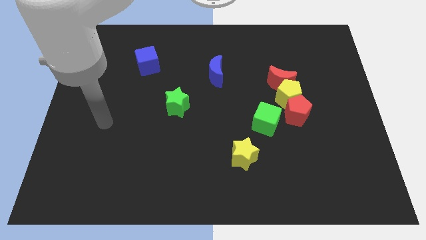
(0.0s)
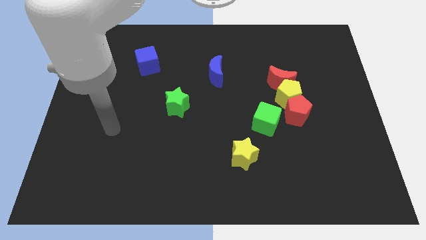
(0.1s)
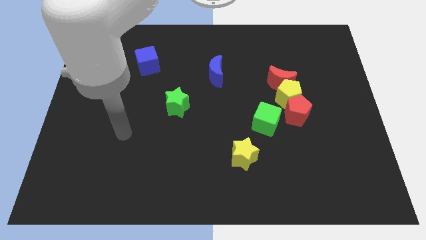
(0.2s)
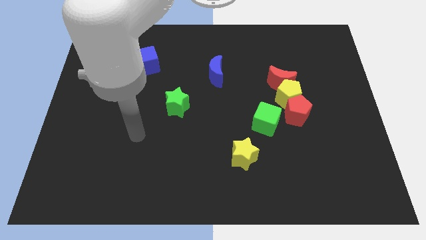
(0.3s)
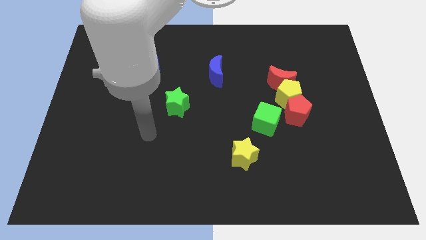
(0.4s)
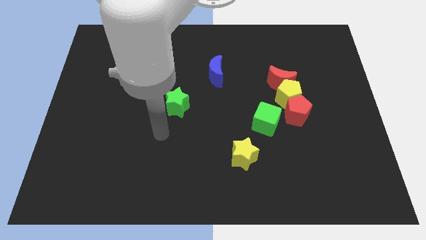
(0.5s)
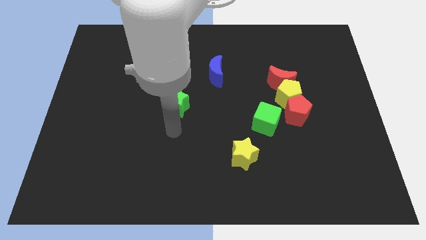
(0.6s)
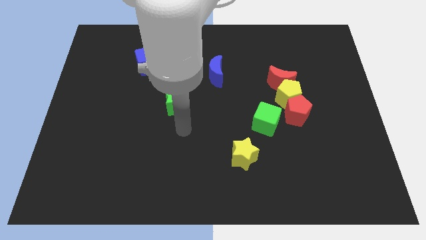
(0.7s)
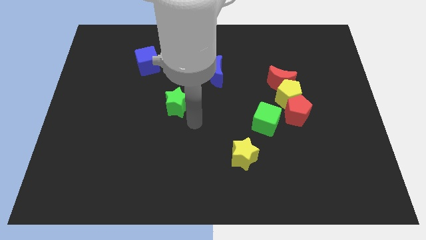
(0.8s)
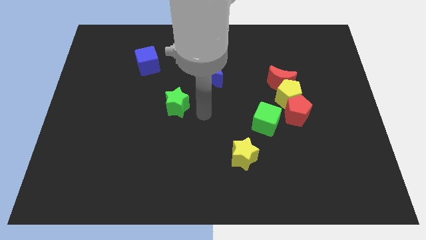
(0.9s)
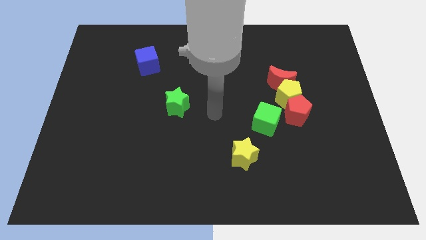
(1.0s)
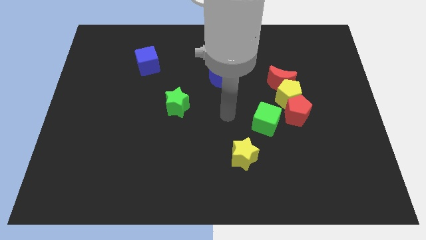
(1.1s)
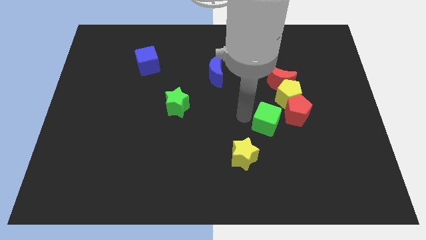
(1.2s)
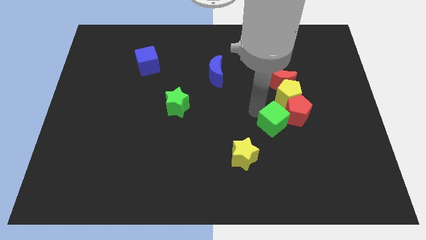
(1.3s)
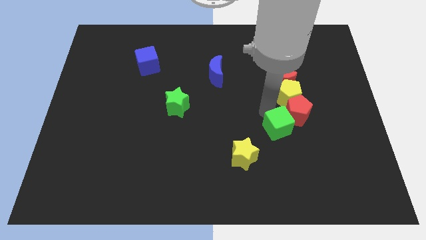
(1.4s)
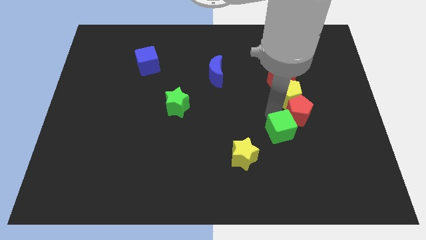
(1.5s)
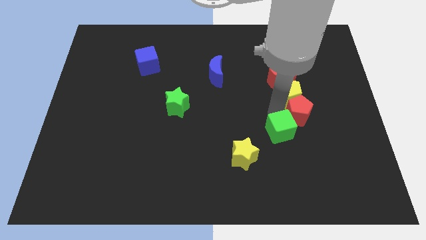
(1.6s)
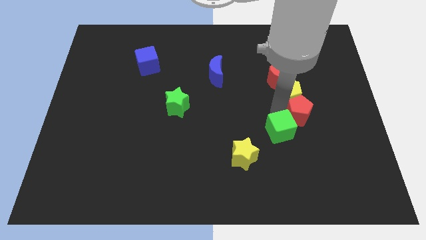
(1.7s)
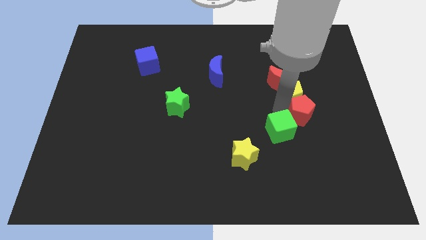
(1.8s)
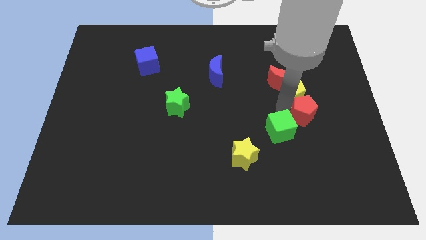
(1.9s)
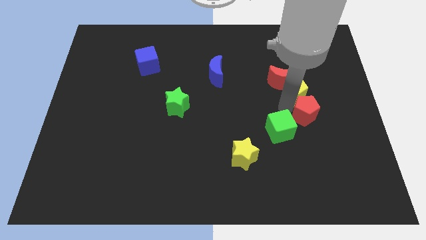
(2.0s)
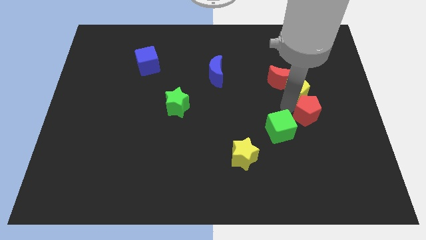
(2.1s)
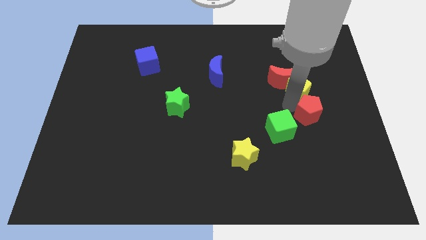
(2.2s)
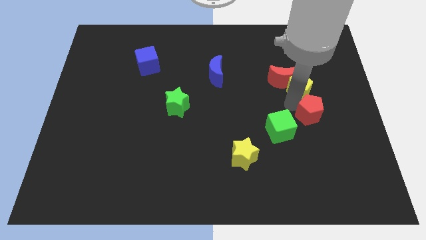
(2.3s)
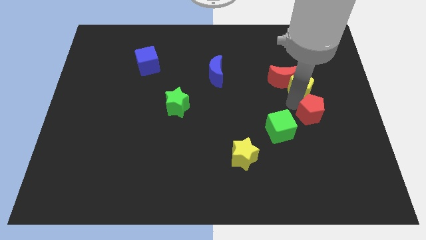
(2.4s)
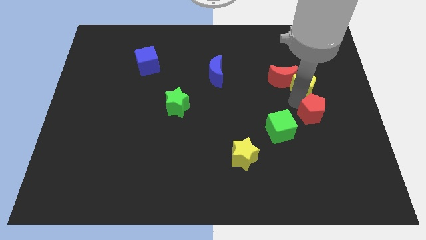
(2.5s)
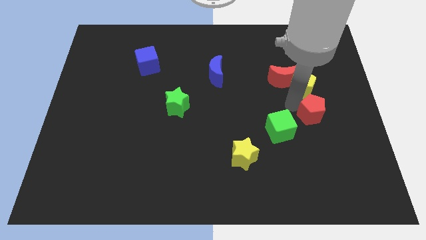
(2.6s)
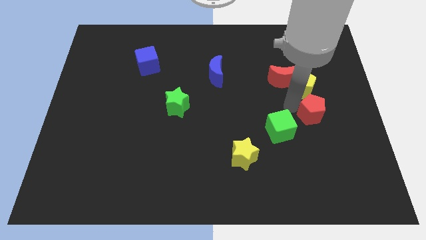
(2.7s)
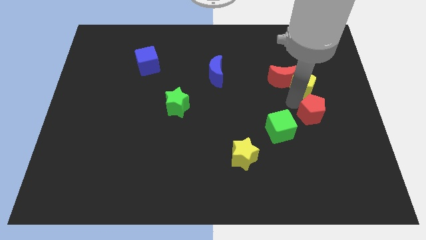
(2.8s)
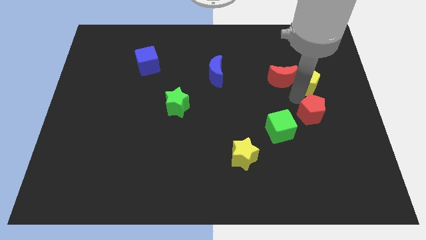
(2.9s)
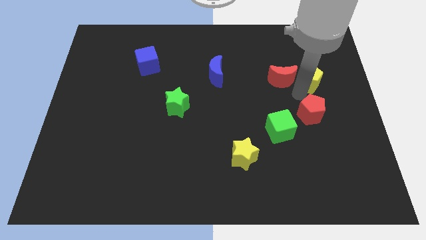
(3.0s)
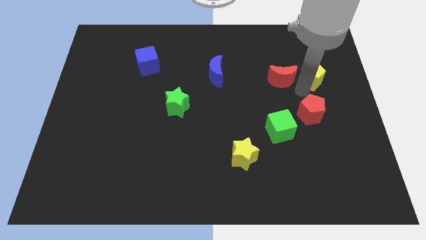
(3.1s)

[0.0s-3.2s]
separate the yellow pentagon from the group

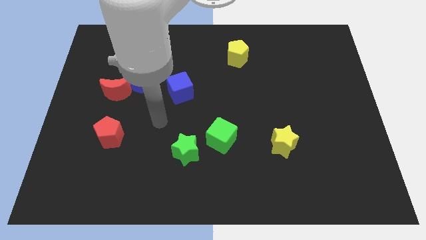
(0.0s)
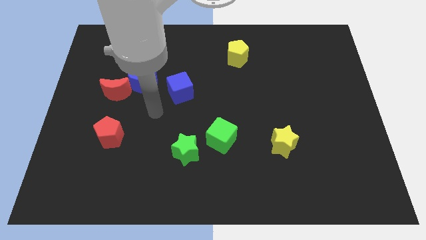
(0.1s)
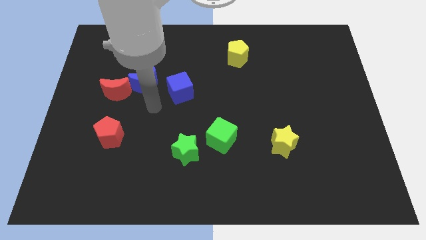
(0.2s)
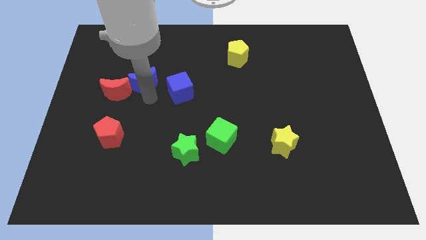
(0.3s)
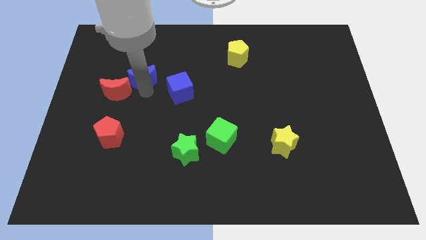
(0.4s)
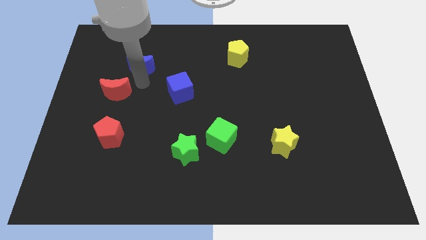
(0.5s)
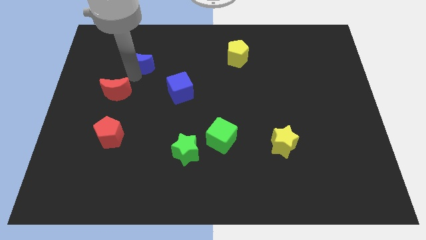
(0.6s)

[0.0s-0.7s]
pull the red moon apart from the blue moon

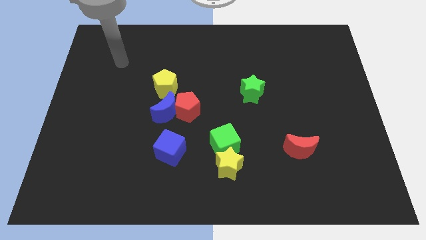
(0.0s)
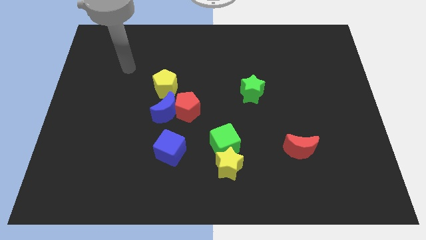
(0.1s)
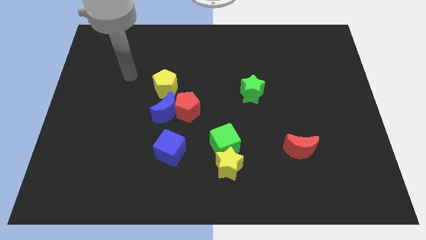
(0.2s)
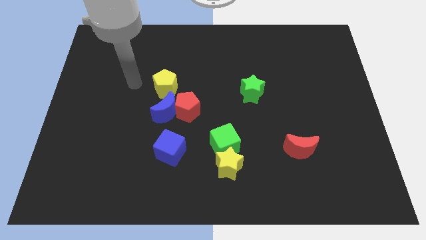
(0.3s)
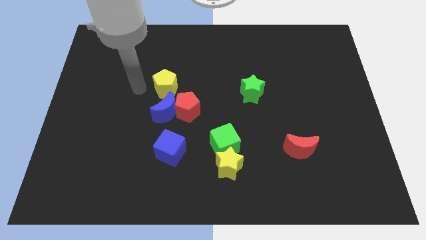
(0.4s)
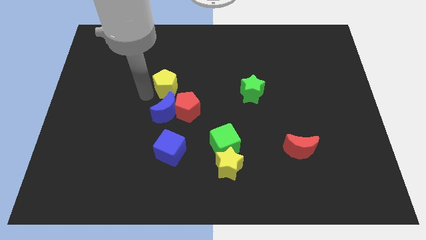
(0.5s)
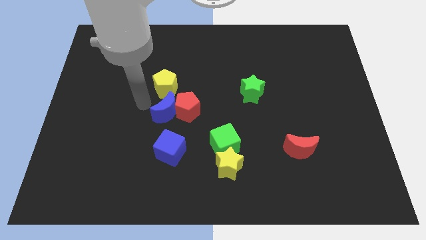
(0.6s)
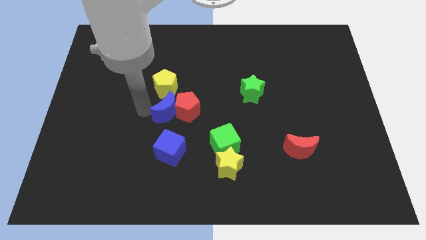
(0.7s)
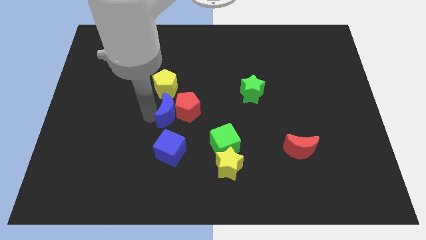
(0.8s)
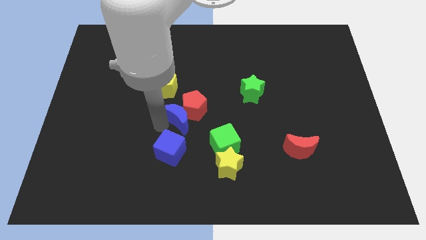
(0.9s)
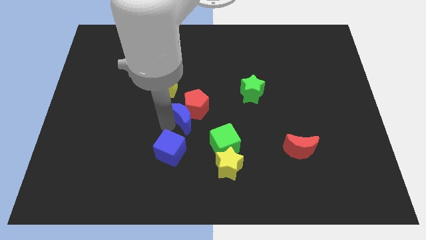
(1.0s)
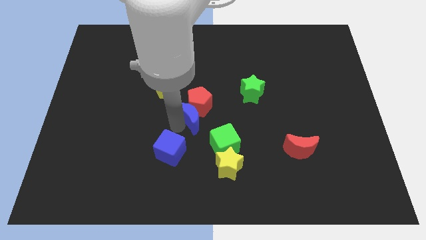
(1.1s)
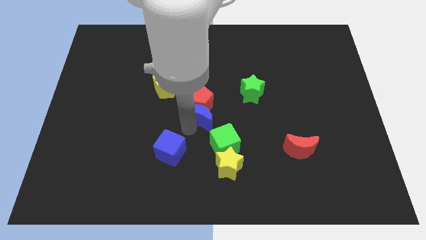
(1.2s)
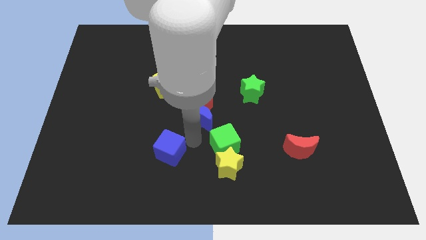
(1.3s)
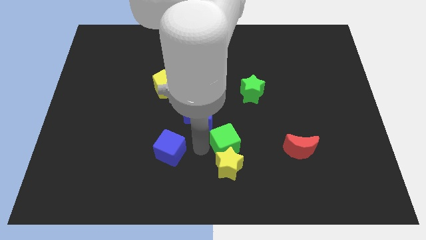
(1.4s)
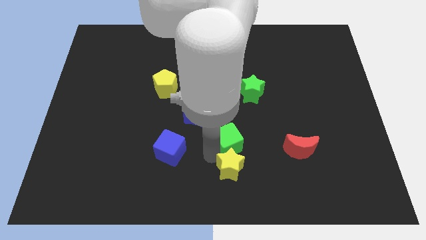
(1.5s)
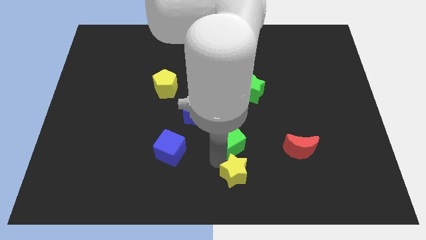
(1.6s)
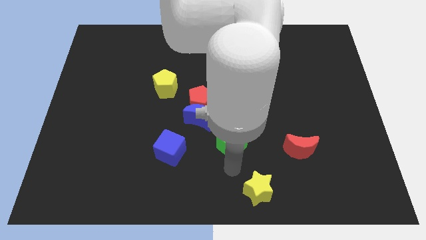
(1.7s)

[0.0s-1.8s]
pull the green cube apart from the yellow star

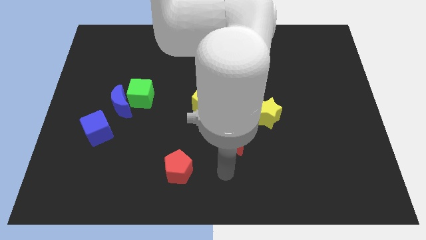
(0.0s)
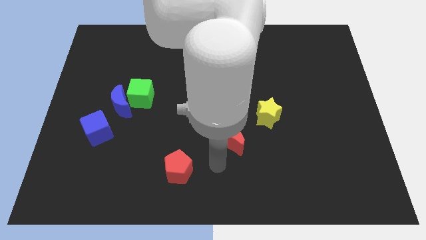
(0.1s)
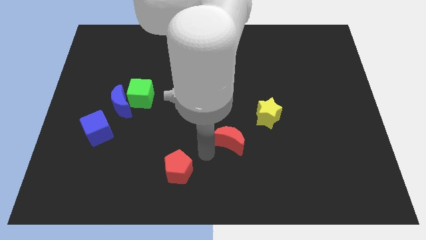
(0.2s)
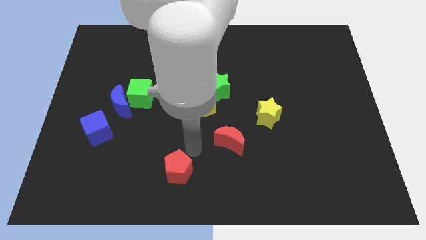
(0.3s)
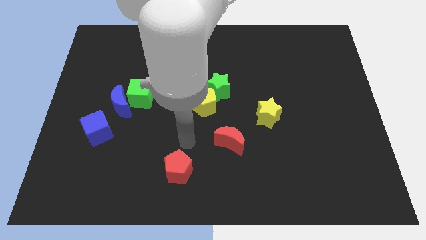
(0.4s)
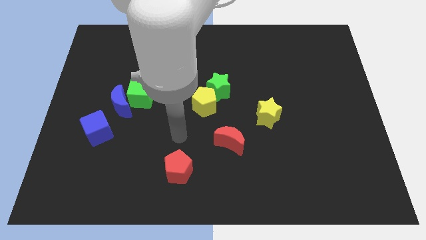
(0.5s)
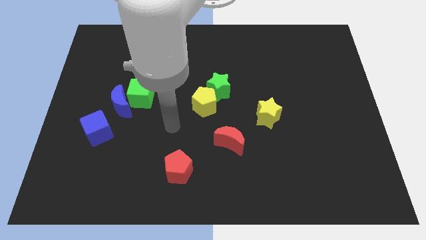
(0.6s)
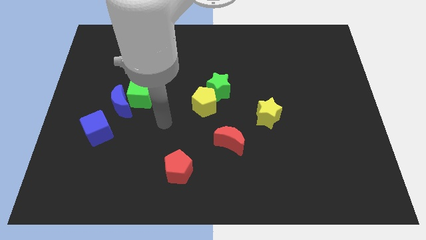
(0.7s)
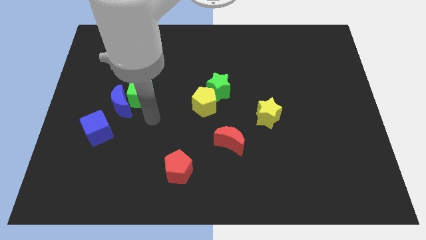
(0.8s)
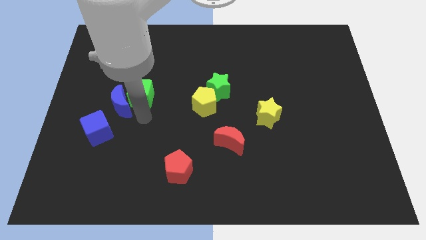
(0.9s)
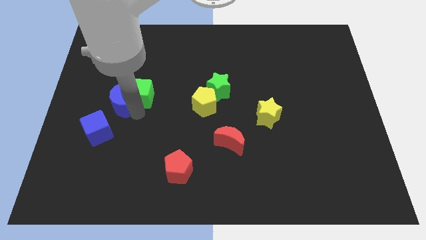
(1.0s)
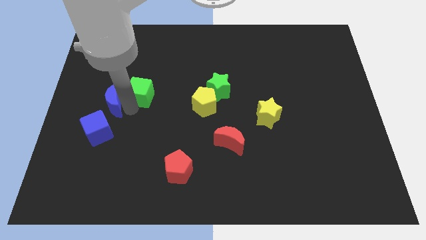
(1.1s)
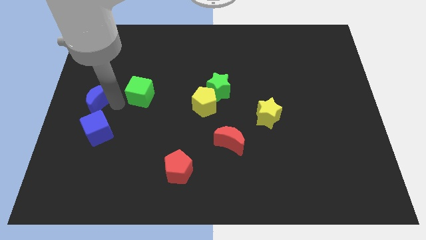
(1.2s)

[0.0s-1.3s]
move the green cube away from the blue moon

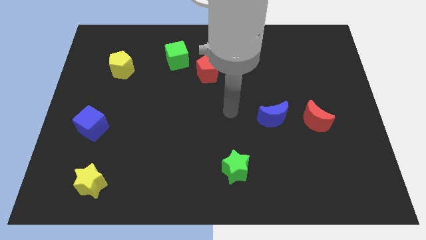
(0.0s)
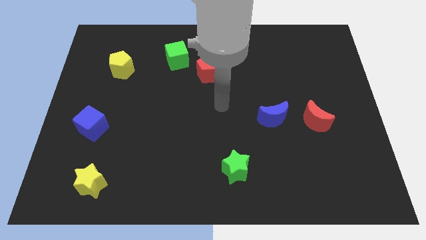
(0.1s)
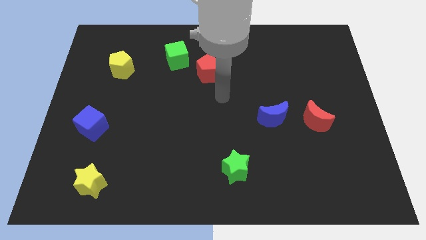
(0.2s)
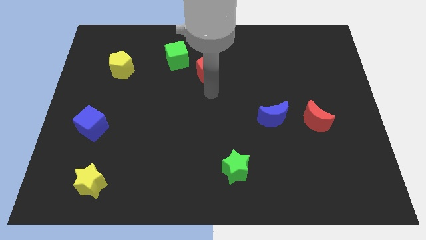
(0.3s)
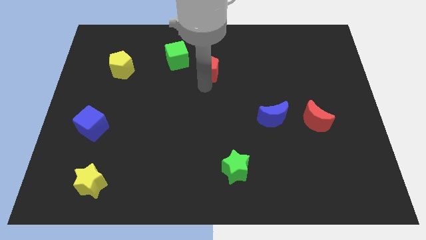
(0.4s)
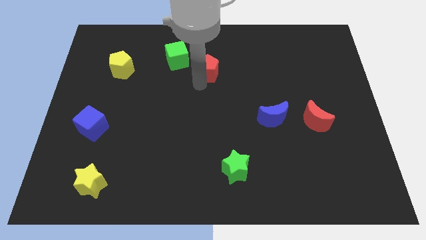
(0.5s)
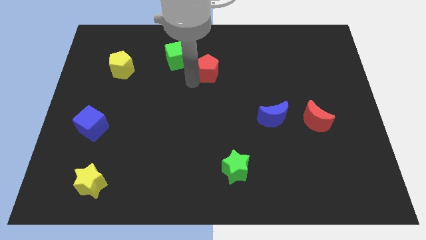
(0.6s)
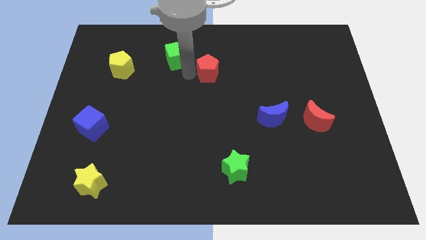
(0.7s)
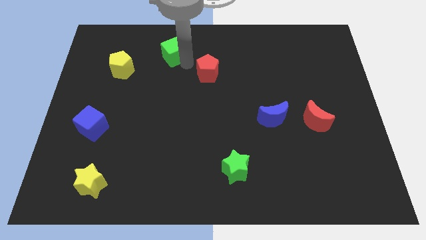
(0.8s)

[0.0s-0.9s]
pull the red pentagon apart from the green cube

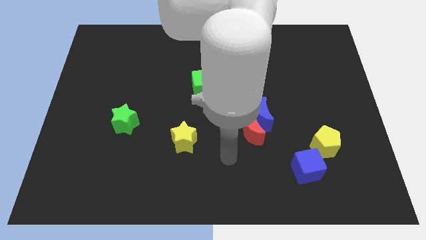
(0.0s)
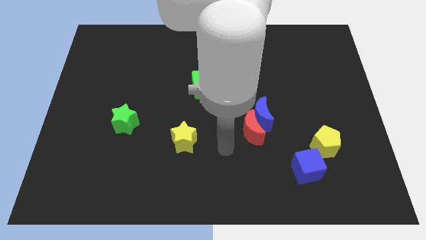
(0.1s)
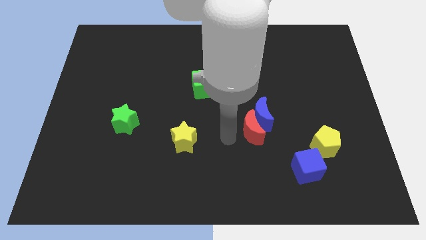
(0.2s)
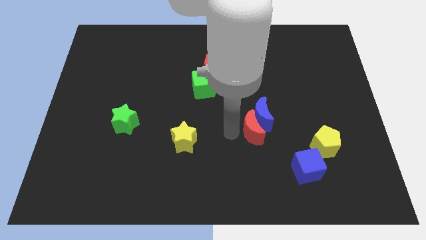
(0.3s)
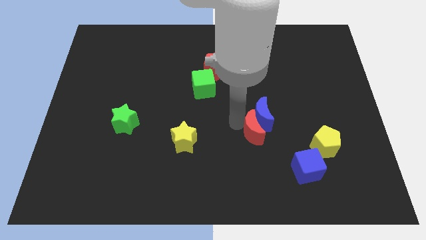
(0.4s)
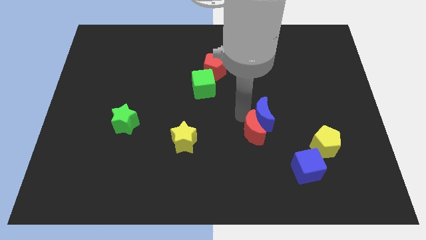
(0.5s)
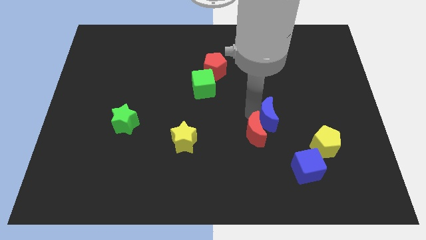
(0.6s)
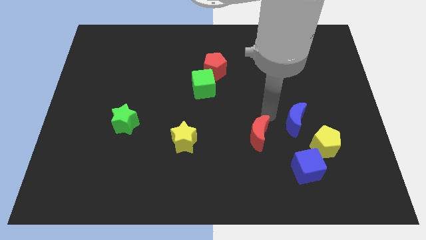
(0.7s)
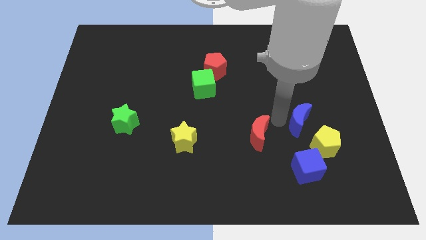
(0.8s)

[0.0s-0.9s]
move the red moon away from the blue moon

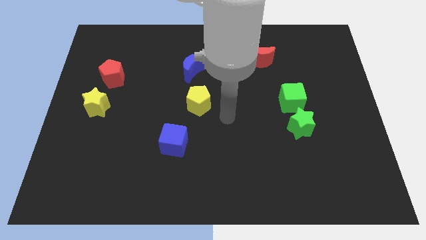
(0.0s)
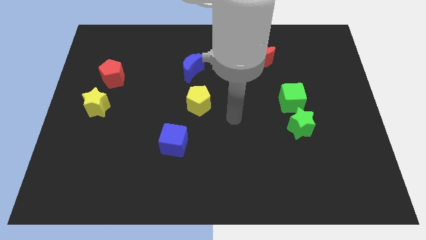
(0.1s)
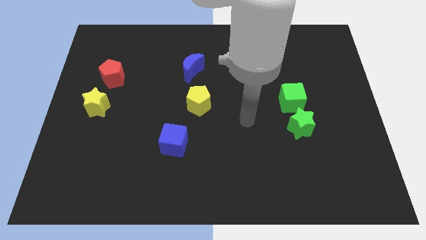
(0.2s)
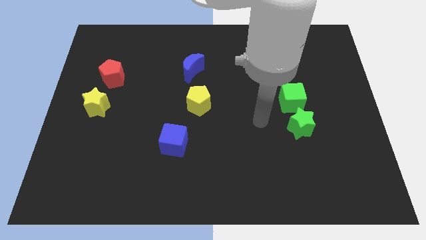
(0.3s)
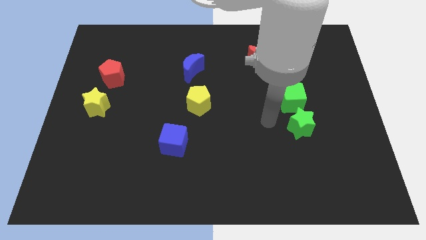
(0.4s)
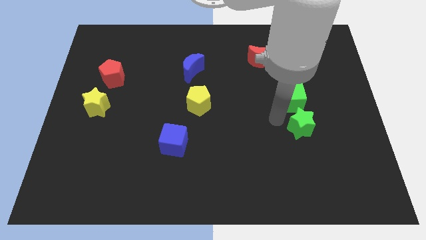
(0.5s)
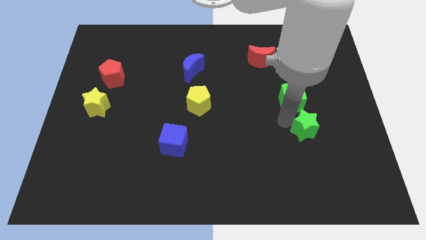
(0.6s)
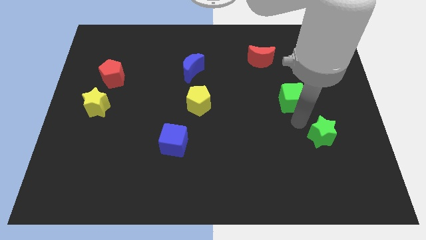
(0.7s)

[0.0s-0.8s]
separate the green cube from the green star
